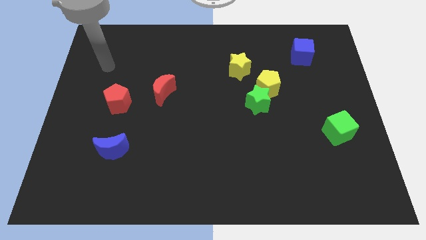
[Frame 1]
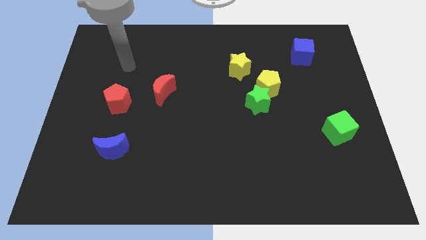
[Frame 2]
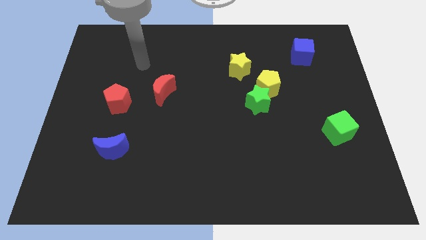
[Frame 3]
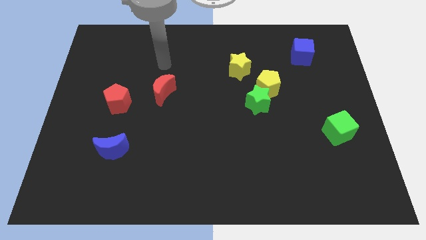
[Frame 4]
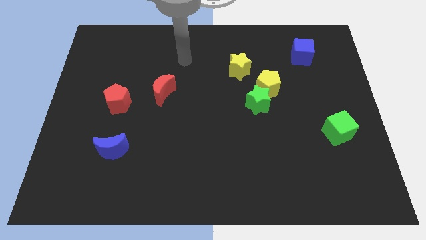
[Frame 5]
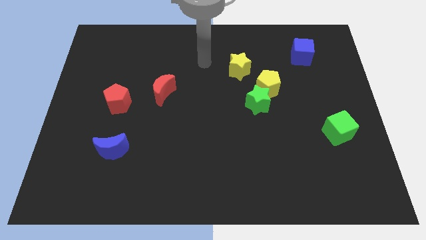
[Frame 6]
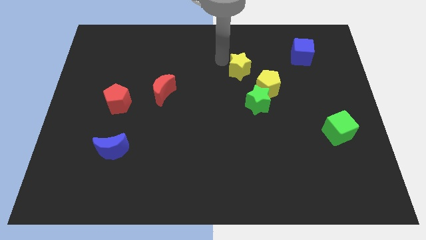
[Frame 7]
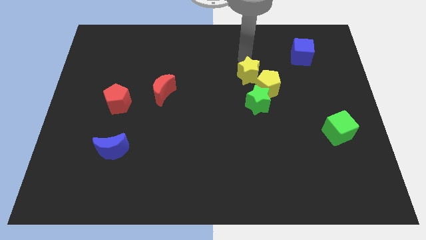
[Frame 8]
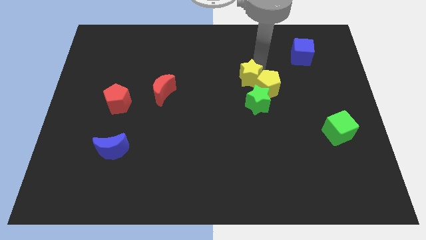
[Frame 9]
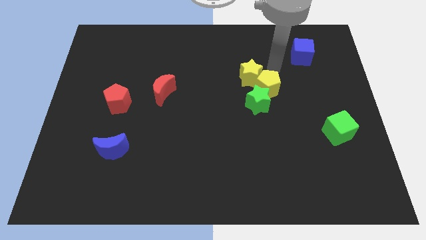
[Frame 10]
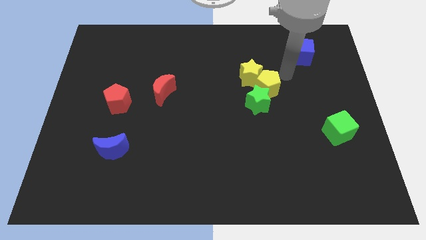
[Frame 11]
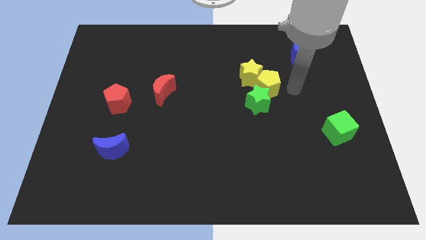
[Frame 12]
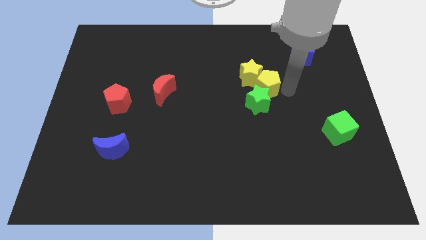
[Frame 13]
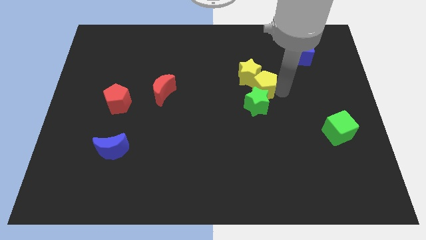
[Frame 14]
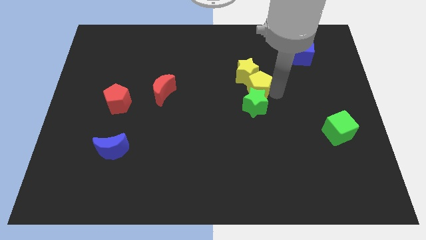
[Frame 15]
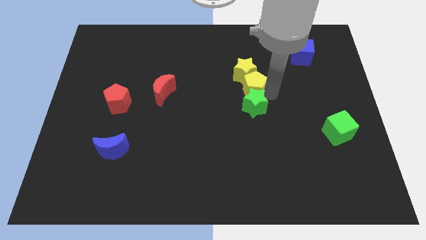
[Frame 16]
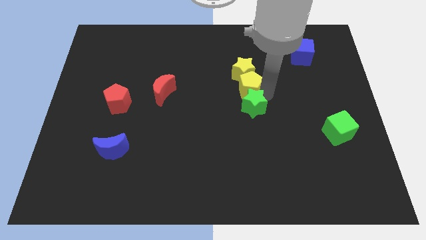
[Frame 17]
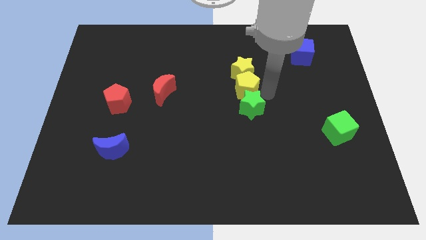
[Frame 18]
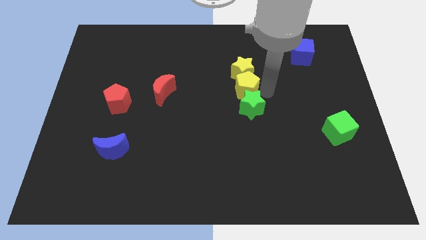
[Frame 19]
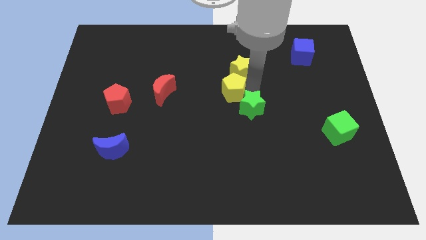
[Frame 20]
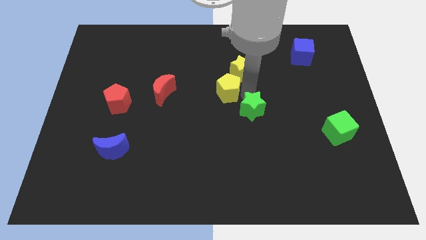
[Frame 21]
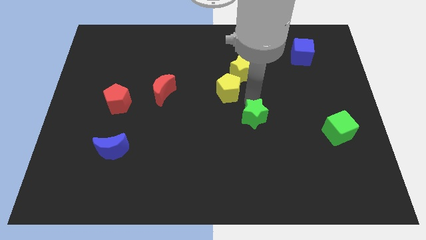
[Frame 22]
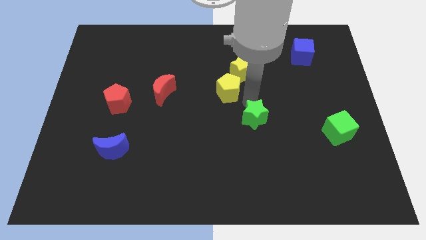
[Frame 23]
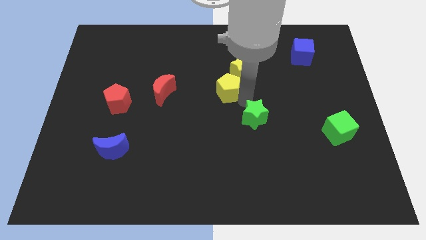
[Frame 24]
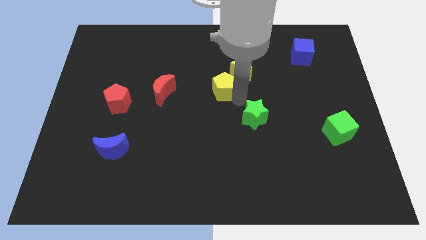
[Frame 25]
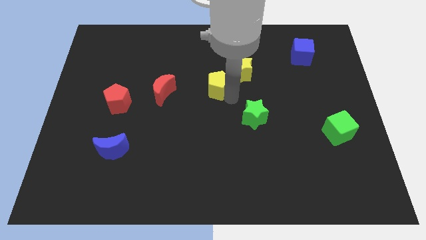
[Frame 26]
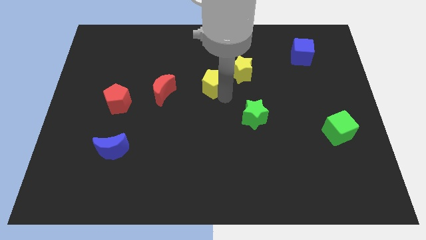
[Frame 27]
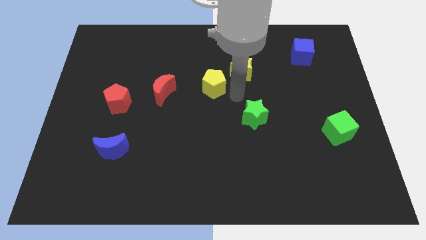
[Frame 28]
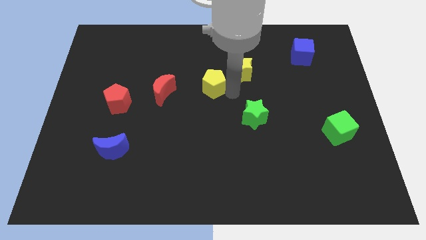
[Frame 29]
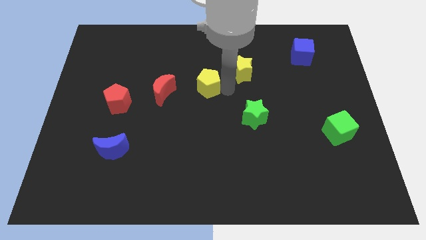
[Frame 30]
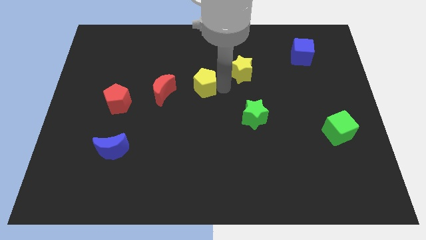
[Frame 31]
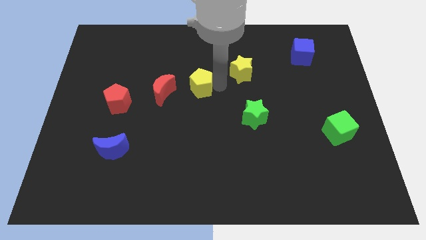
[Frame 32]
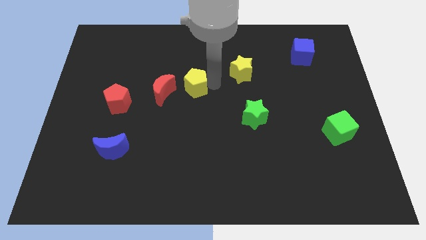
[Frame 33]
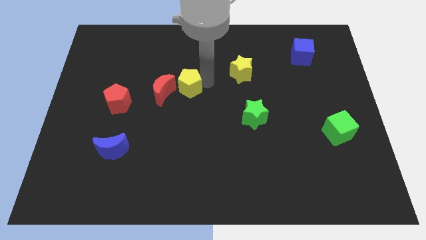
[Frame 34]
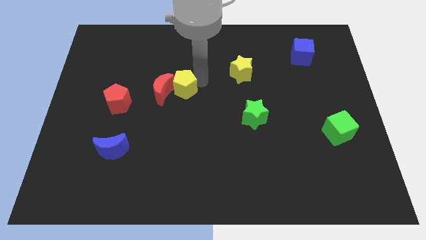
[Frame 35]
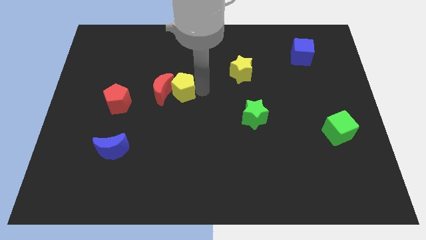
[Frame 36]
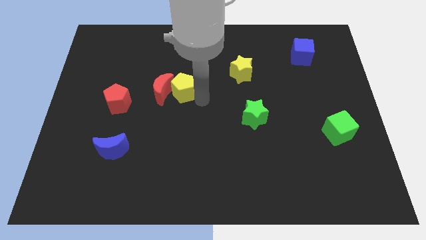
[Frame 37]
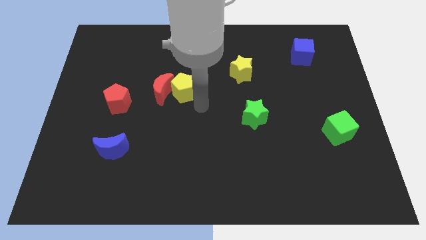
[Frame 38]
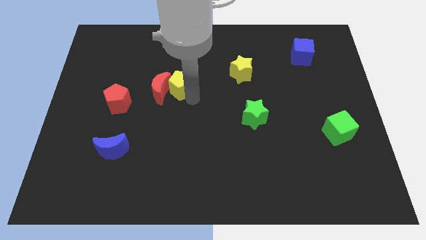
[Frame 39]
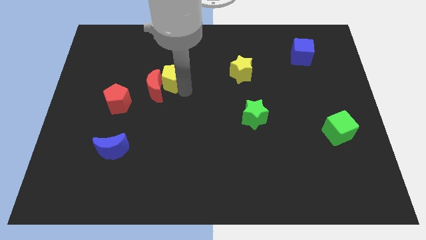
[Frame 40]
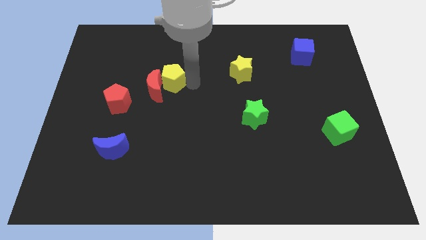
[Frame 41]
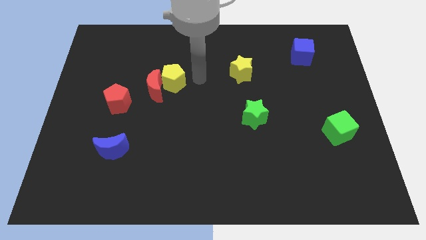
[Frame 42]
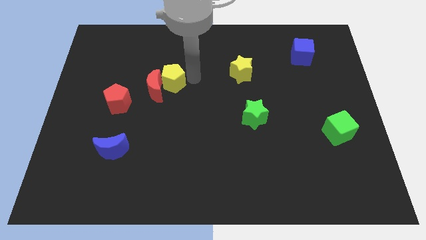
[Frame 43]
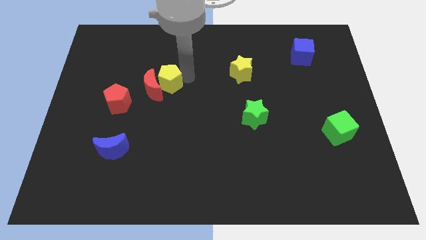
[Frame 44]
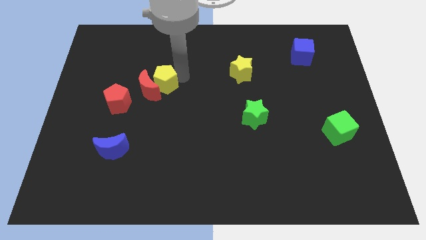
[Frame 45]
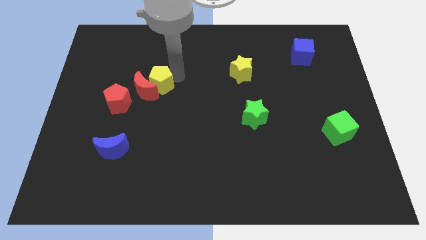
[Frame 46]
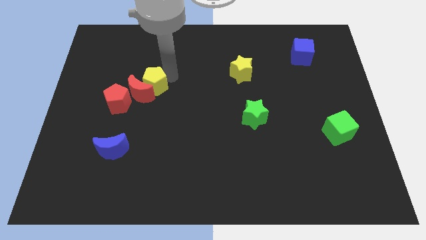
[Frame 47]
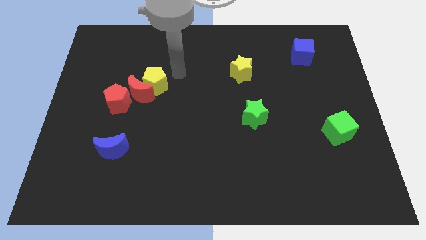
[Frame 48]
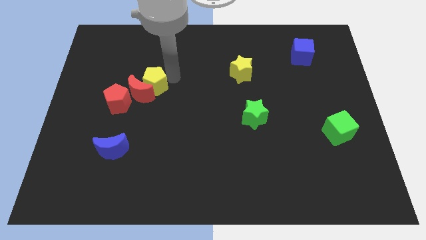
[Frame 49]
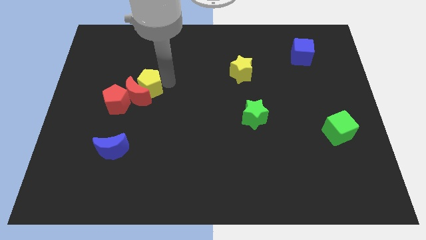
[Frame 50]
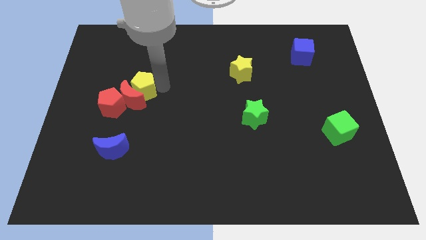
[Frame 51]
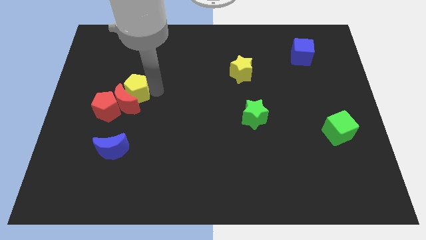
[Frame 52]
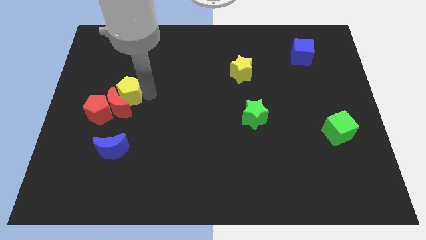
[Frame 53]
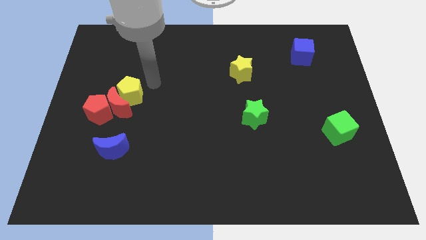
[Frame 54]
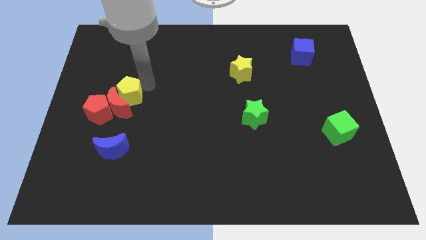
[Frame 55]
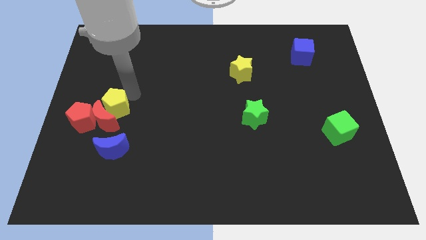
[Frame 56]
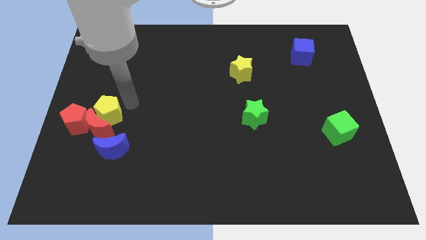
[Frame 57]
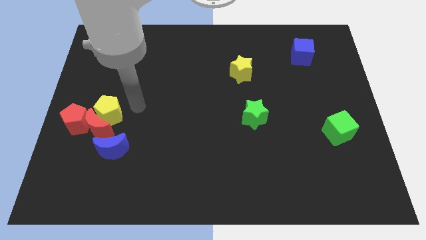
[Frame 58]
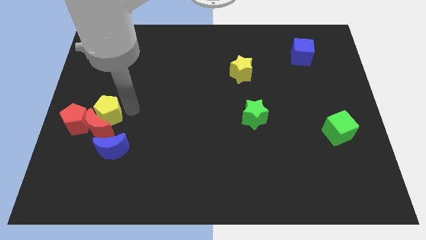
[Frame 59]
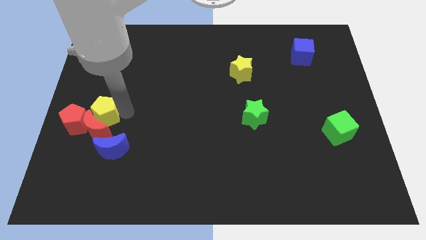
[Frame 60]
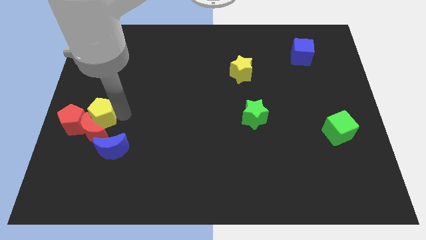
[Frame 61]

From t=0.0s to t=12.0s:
slide the yellow pentagon to the red pentagon
